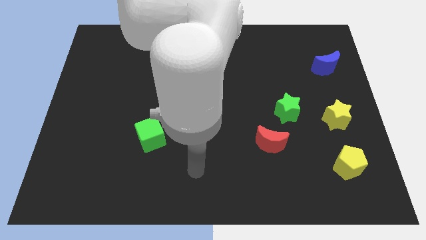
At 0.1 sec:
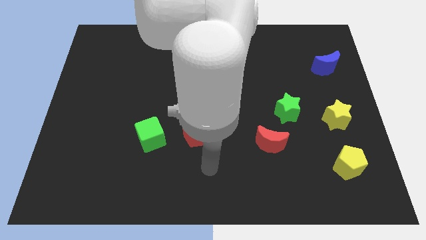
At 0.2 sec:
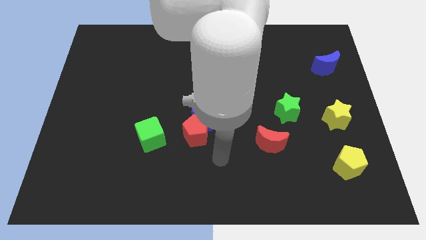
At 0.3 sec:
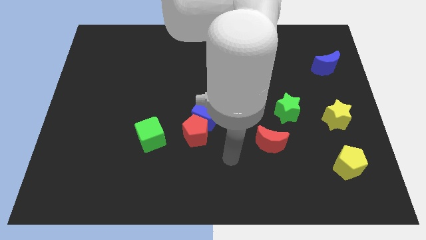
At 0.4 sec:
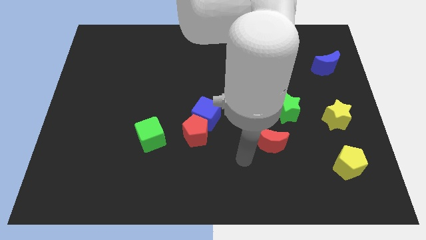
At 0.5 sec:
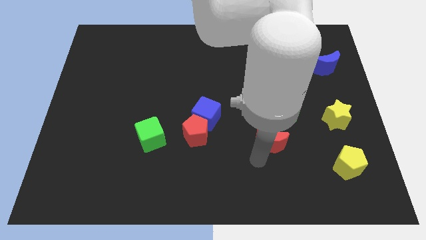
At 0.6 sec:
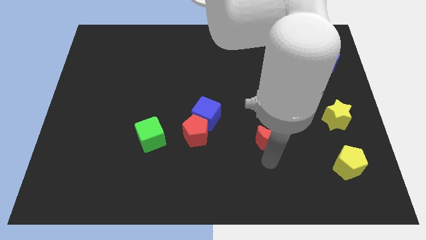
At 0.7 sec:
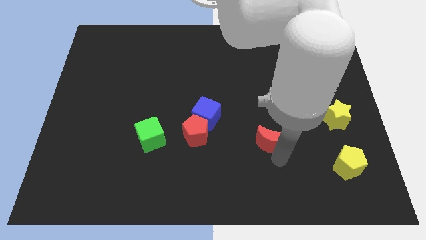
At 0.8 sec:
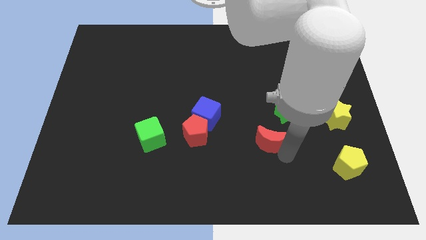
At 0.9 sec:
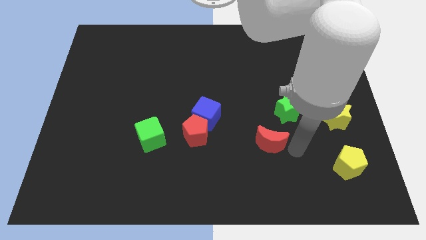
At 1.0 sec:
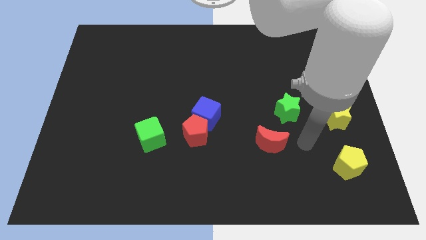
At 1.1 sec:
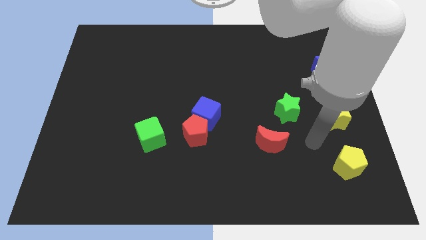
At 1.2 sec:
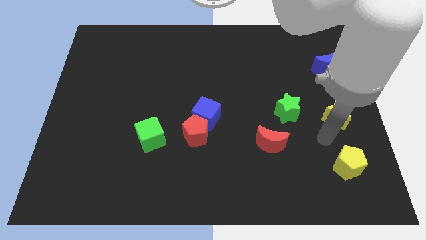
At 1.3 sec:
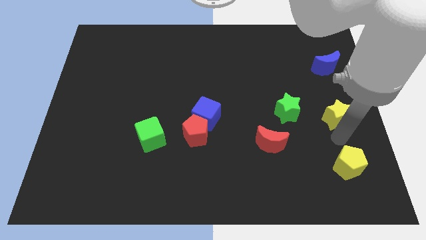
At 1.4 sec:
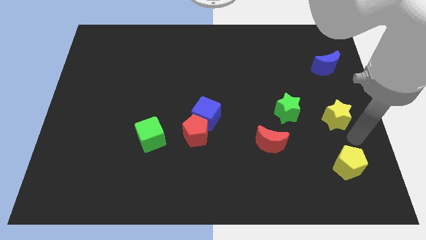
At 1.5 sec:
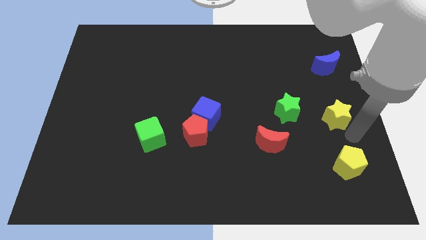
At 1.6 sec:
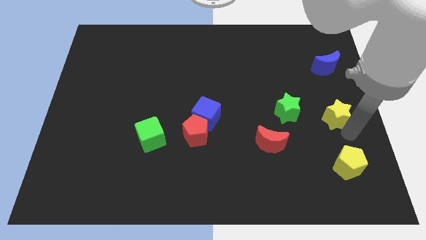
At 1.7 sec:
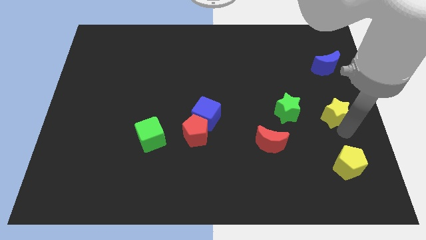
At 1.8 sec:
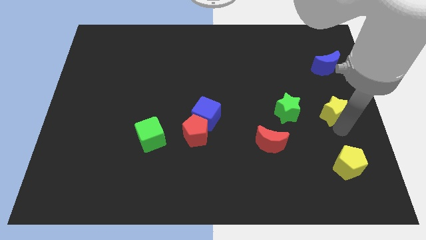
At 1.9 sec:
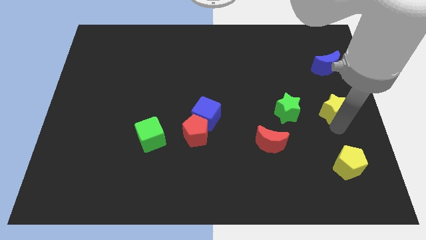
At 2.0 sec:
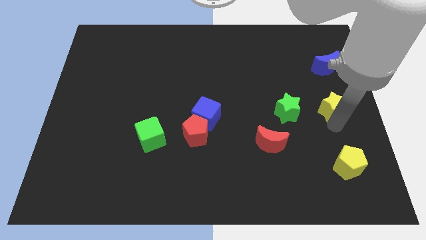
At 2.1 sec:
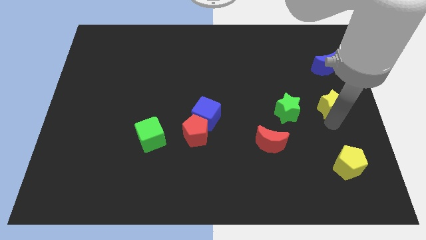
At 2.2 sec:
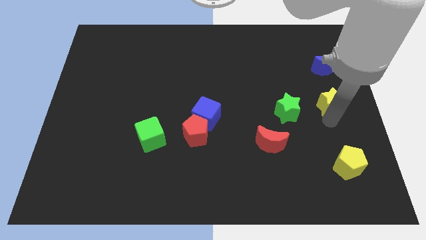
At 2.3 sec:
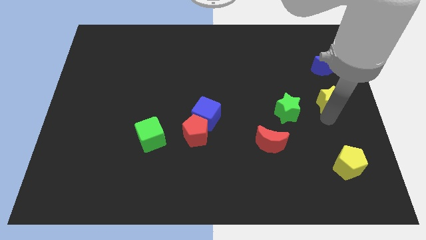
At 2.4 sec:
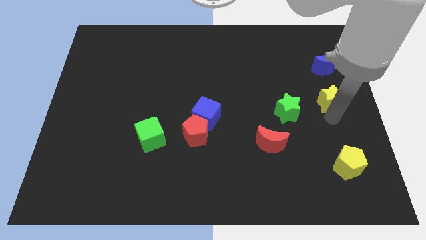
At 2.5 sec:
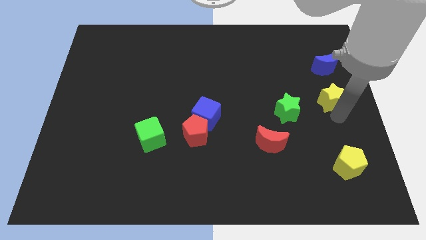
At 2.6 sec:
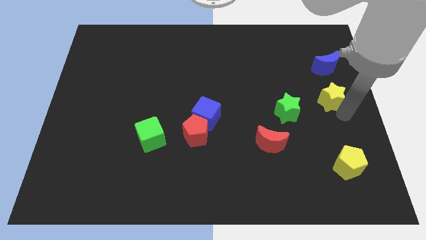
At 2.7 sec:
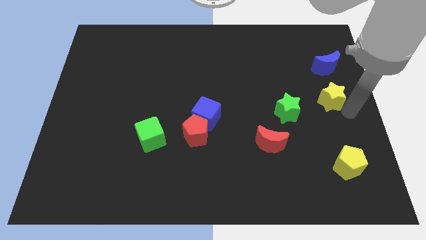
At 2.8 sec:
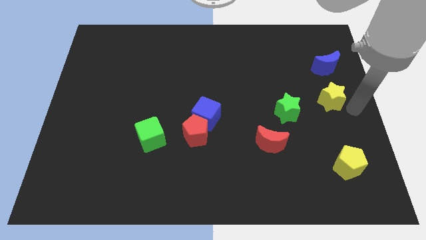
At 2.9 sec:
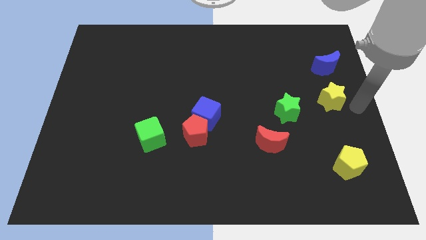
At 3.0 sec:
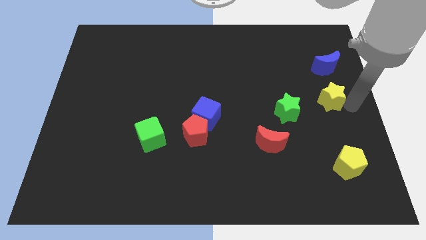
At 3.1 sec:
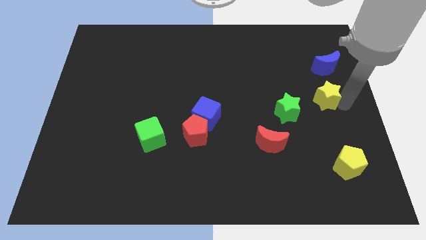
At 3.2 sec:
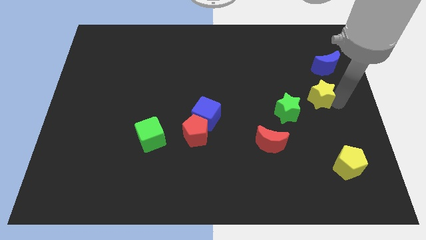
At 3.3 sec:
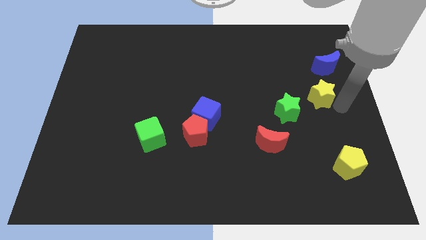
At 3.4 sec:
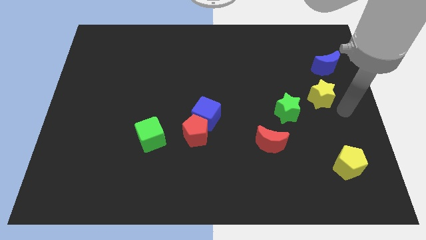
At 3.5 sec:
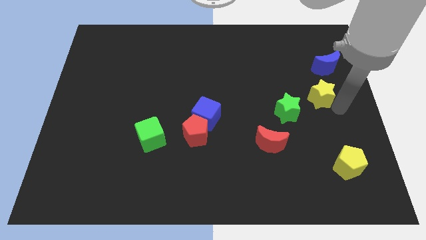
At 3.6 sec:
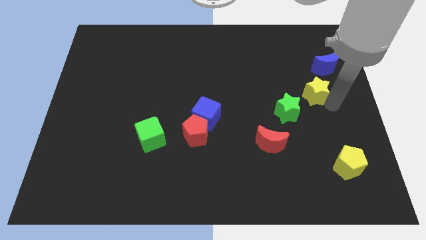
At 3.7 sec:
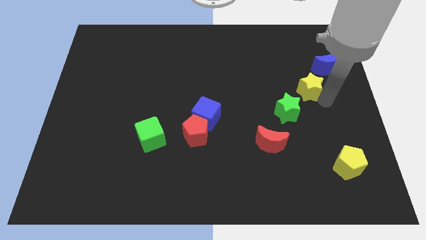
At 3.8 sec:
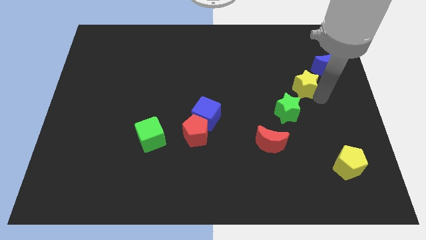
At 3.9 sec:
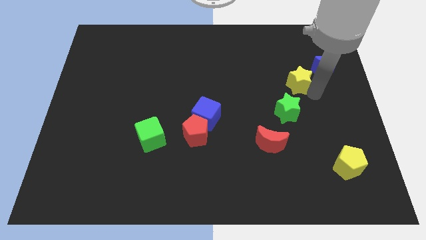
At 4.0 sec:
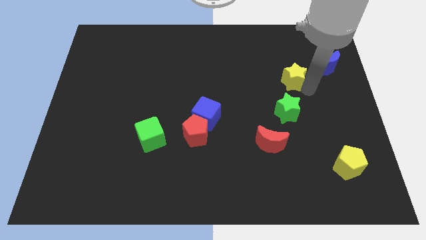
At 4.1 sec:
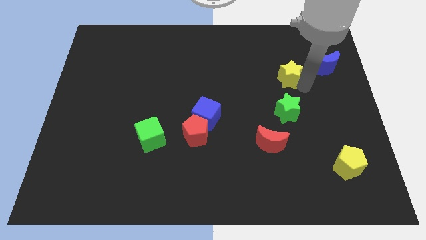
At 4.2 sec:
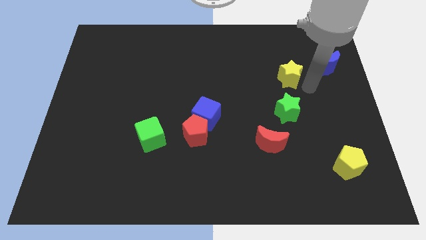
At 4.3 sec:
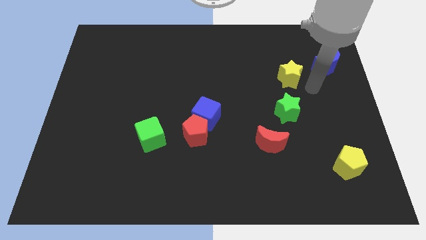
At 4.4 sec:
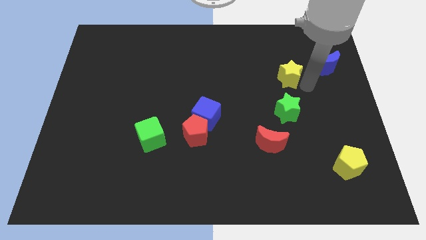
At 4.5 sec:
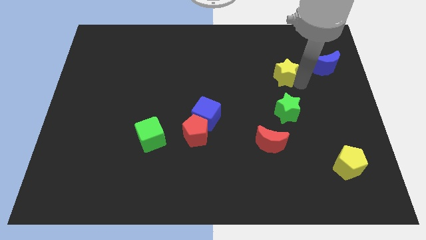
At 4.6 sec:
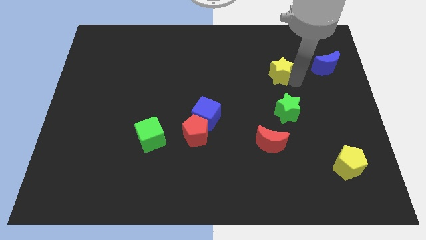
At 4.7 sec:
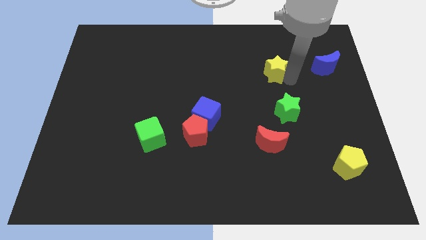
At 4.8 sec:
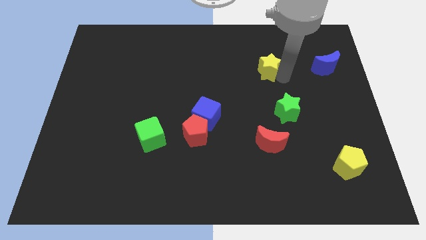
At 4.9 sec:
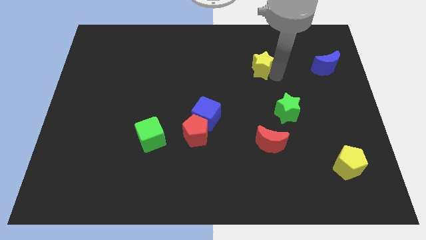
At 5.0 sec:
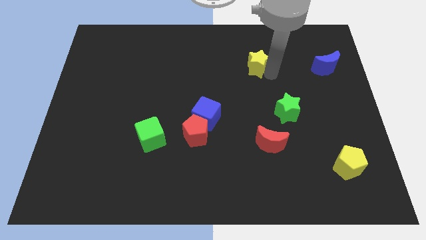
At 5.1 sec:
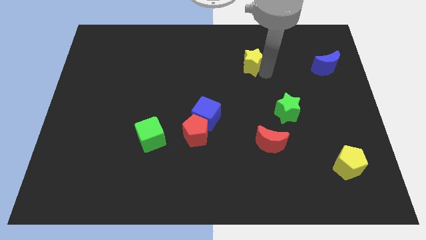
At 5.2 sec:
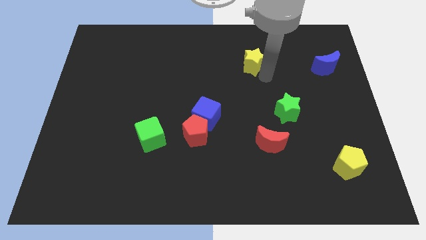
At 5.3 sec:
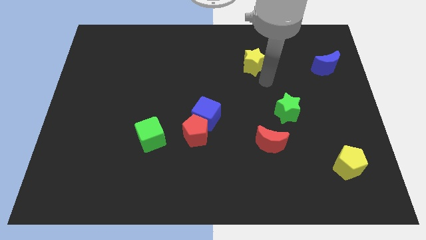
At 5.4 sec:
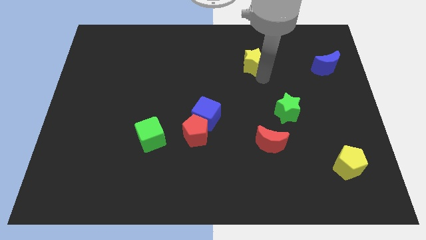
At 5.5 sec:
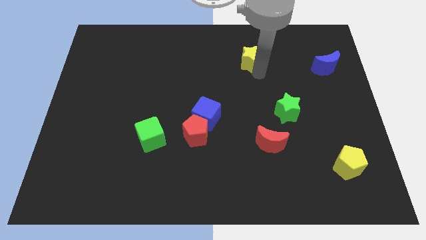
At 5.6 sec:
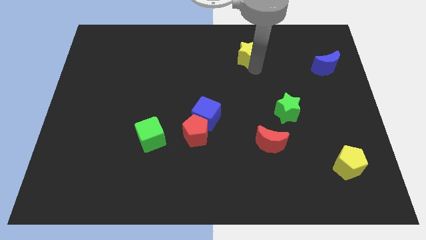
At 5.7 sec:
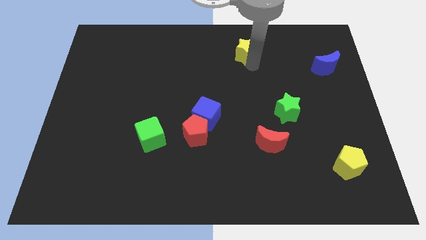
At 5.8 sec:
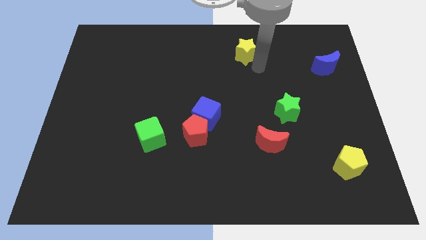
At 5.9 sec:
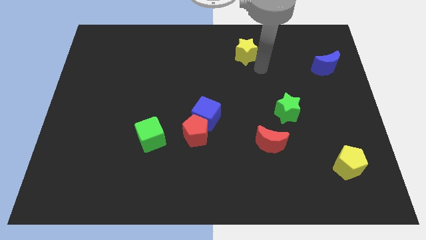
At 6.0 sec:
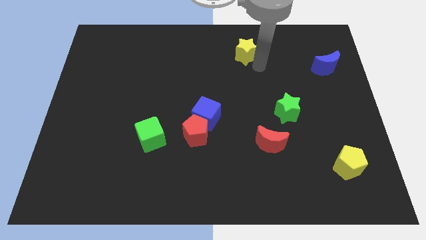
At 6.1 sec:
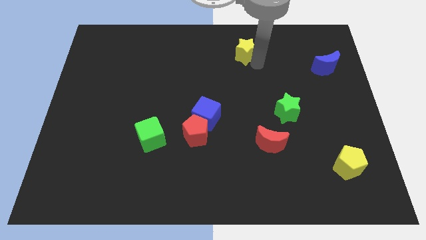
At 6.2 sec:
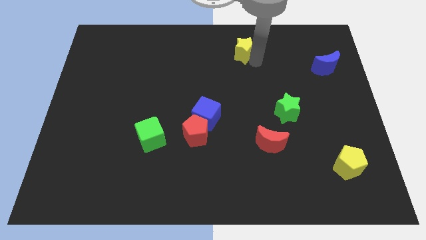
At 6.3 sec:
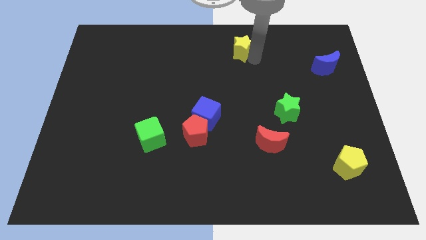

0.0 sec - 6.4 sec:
put the yellow star to the top

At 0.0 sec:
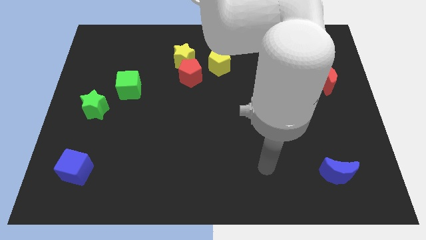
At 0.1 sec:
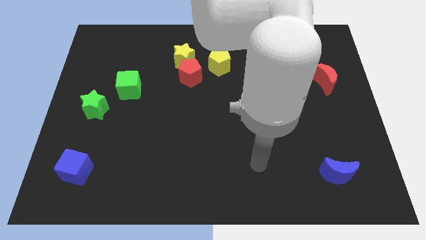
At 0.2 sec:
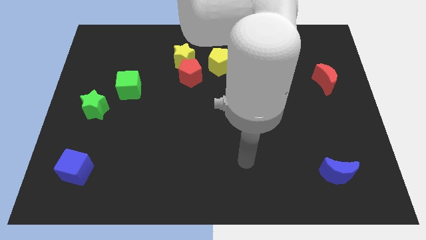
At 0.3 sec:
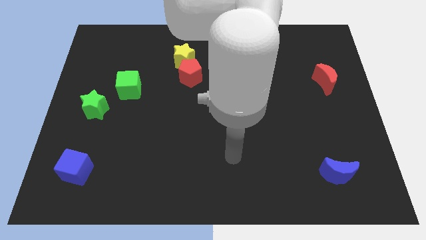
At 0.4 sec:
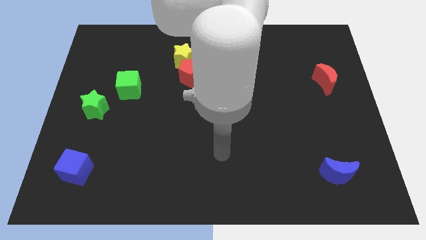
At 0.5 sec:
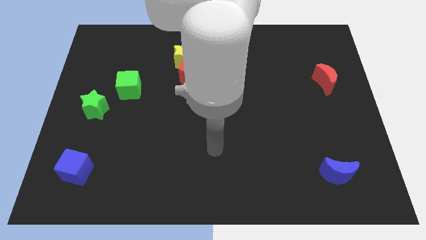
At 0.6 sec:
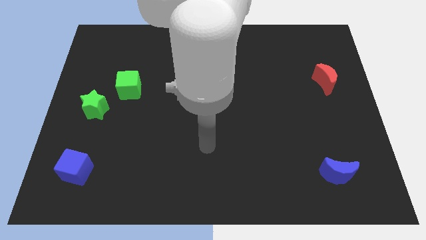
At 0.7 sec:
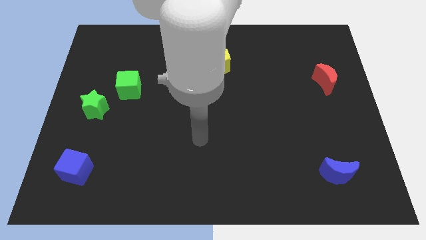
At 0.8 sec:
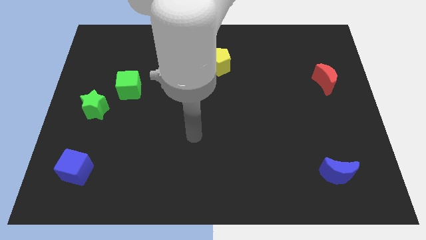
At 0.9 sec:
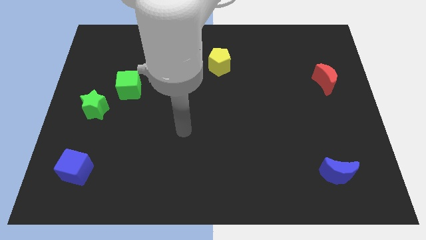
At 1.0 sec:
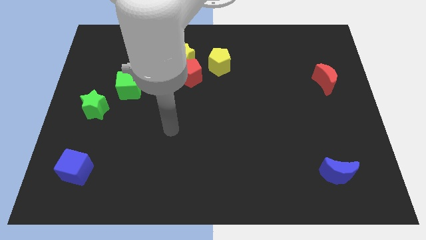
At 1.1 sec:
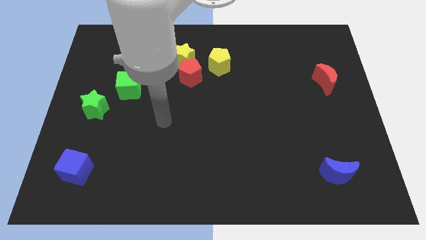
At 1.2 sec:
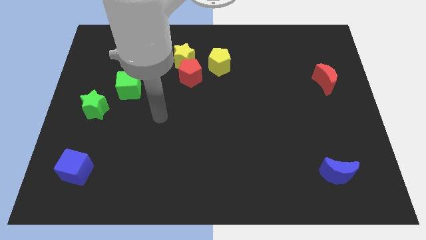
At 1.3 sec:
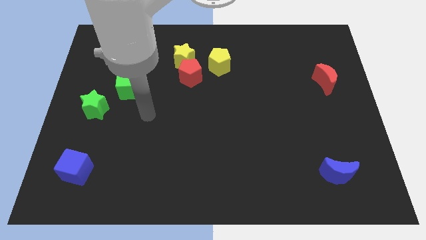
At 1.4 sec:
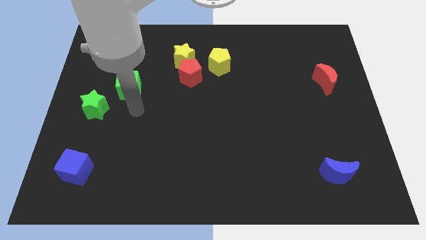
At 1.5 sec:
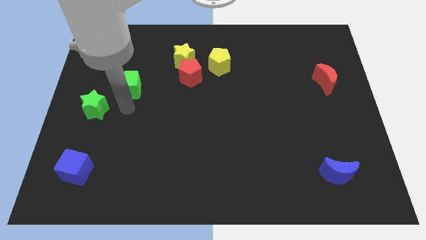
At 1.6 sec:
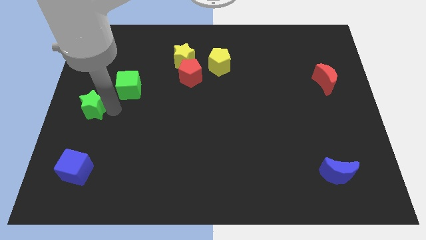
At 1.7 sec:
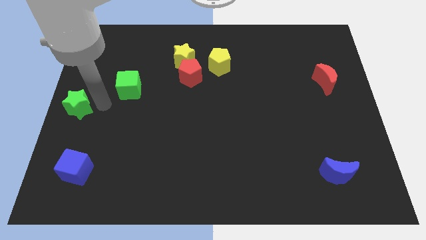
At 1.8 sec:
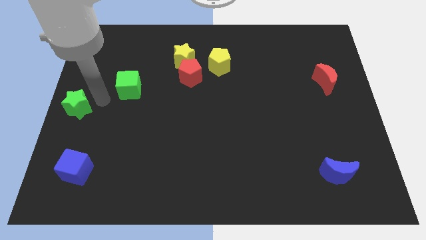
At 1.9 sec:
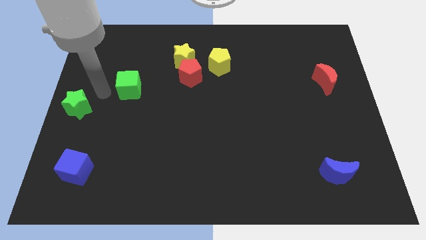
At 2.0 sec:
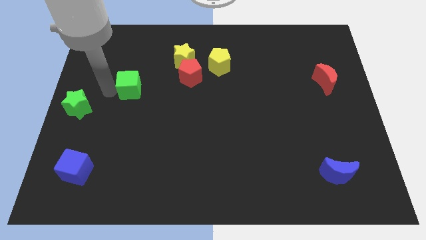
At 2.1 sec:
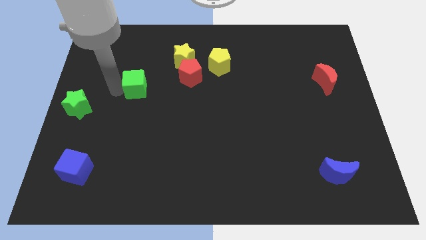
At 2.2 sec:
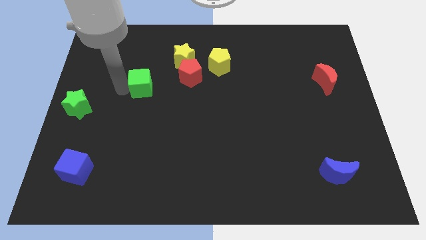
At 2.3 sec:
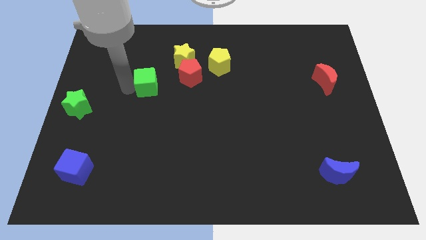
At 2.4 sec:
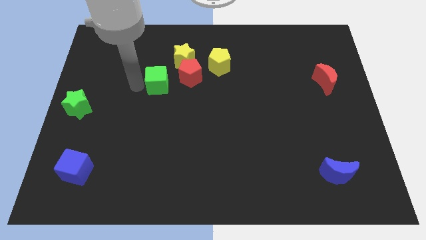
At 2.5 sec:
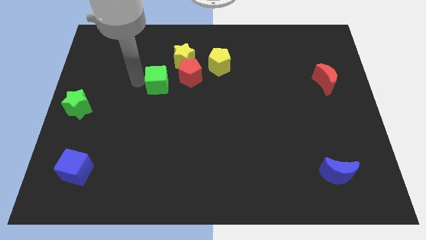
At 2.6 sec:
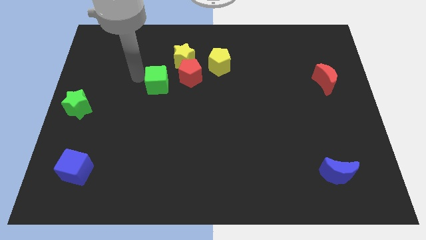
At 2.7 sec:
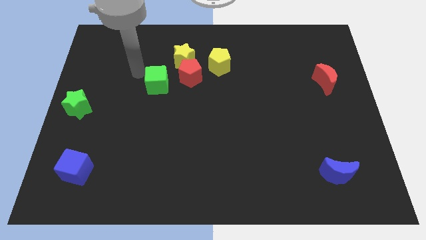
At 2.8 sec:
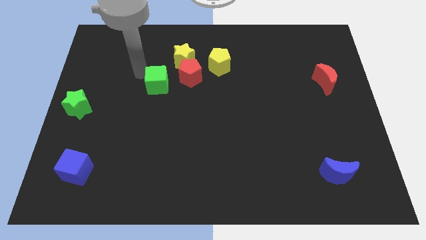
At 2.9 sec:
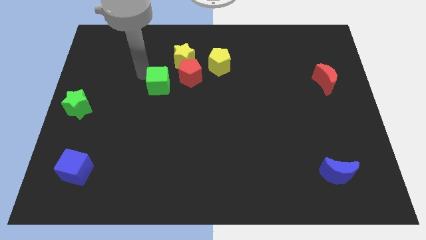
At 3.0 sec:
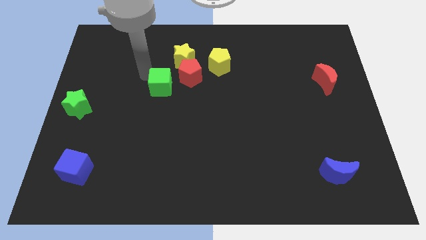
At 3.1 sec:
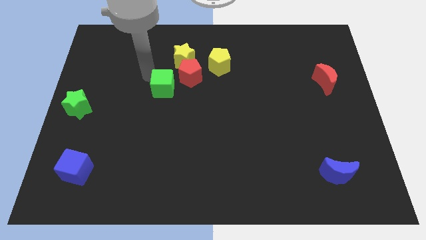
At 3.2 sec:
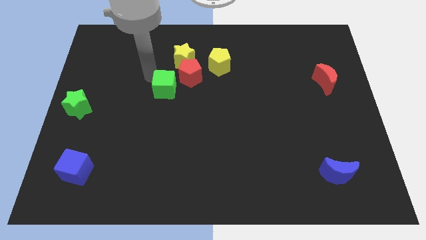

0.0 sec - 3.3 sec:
move the green cube to the middle of the board
